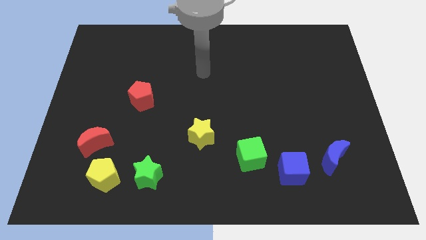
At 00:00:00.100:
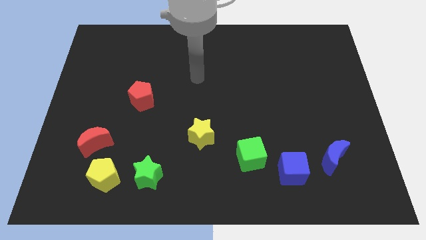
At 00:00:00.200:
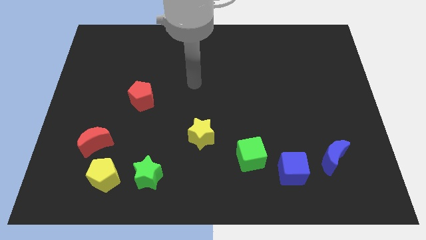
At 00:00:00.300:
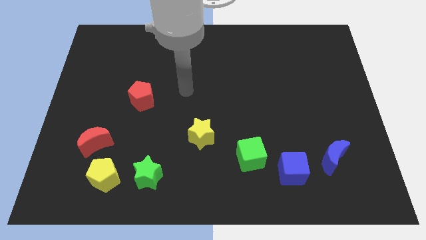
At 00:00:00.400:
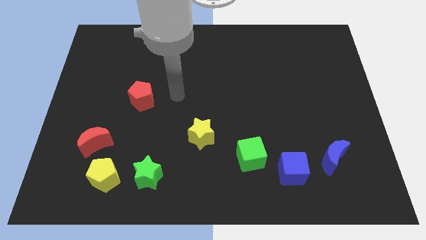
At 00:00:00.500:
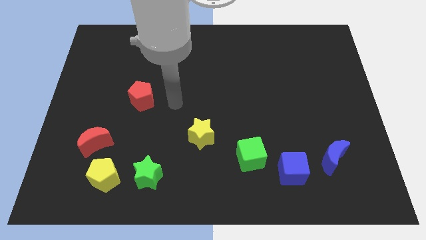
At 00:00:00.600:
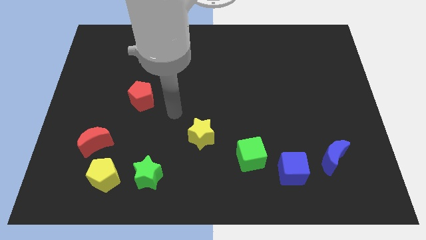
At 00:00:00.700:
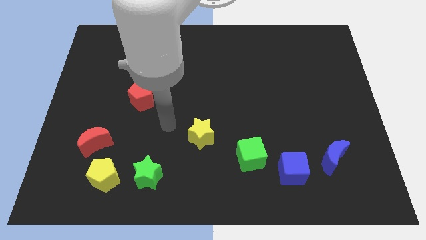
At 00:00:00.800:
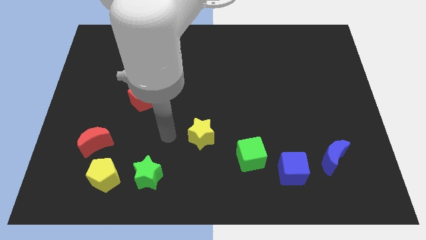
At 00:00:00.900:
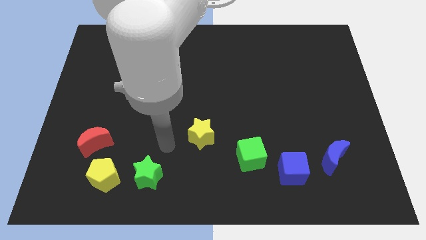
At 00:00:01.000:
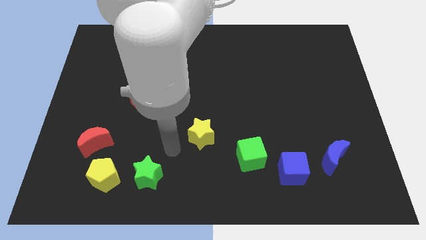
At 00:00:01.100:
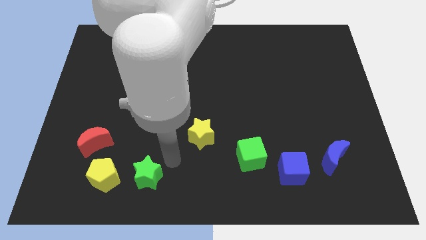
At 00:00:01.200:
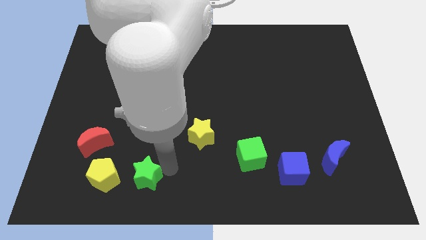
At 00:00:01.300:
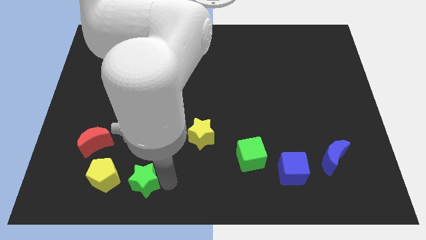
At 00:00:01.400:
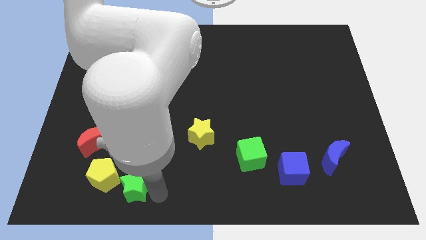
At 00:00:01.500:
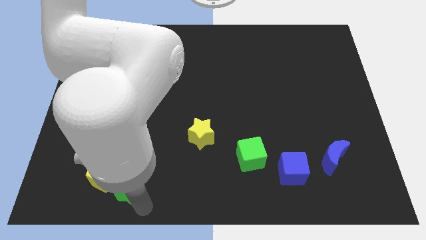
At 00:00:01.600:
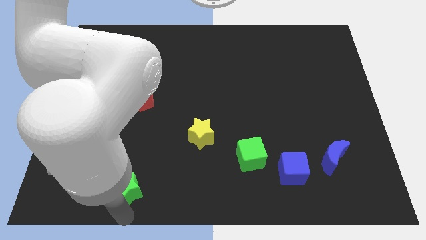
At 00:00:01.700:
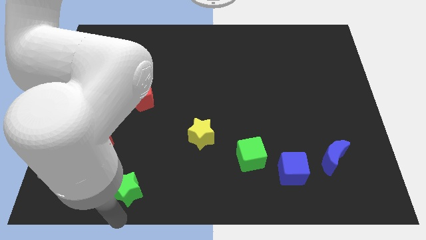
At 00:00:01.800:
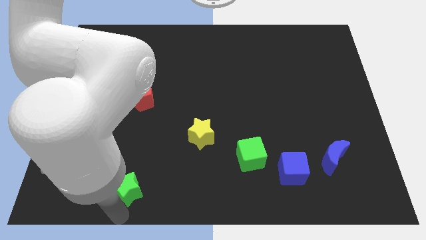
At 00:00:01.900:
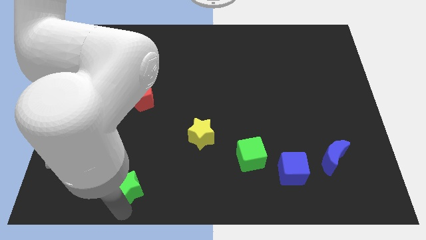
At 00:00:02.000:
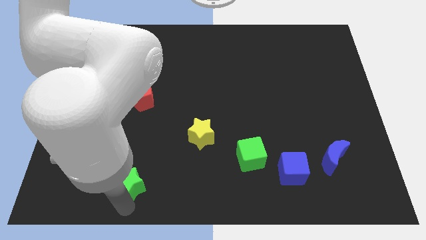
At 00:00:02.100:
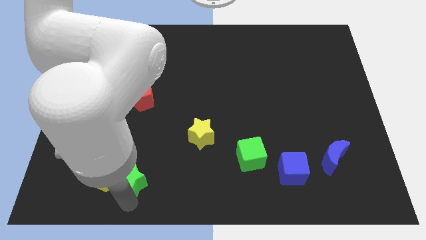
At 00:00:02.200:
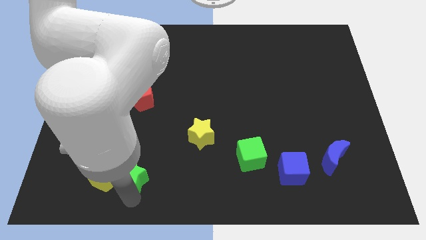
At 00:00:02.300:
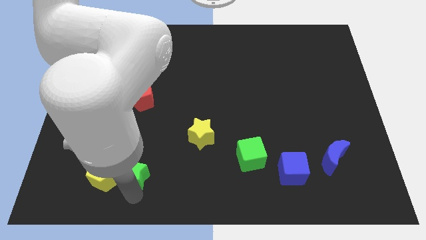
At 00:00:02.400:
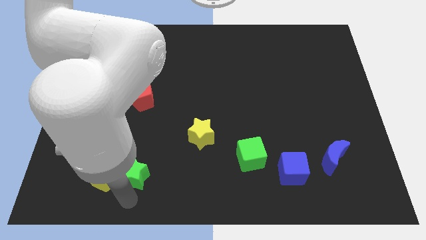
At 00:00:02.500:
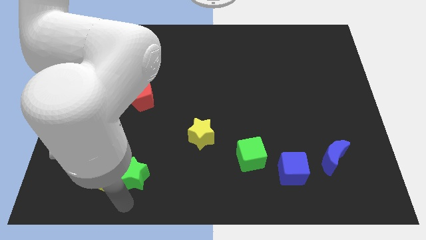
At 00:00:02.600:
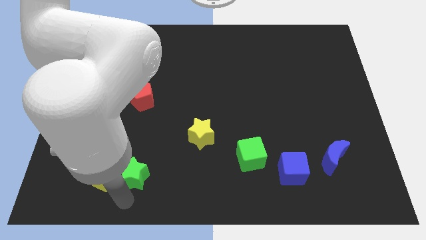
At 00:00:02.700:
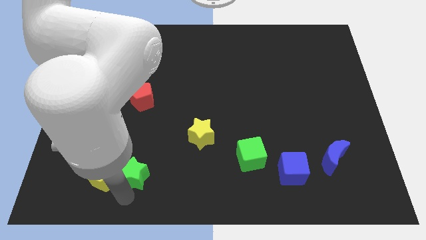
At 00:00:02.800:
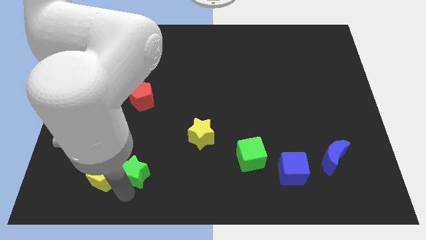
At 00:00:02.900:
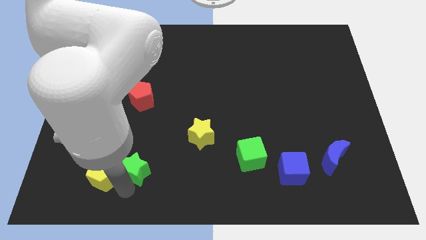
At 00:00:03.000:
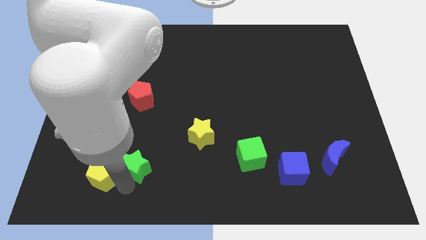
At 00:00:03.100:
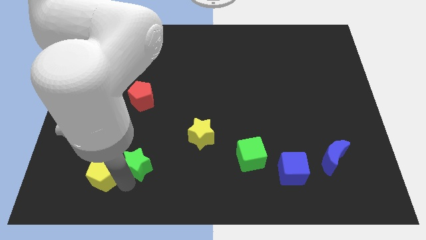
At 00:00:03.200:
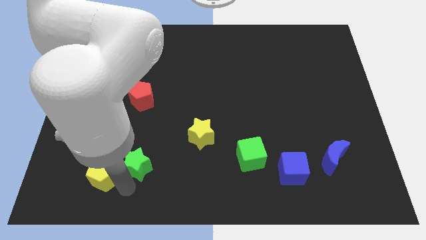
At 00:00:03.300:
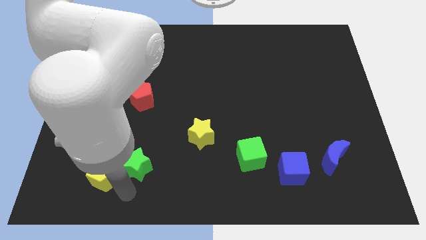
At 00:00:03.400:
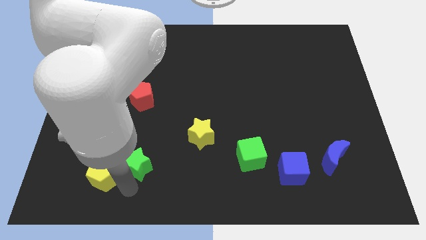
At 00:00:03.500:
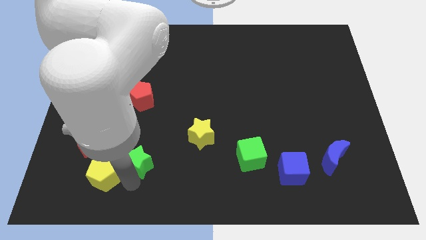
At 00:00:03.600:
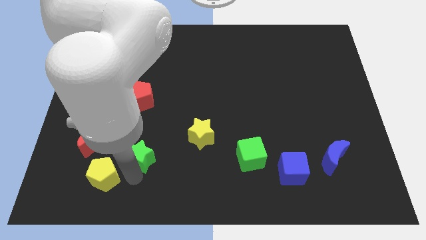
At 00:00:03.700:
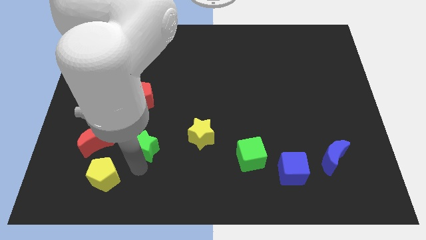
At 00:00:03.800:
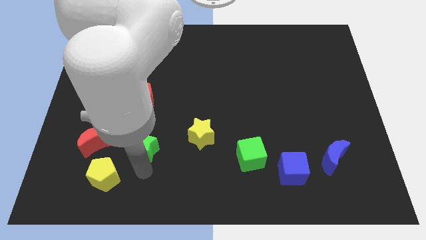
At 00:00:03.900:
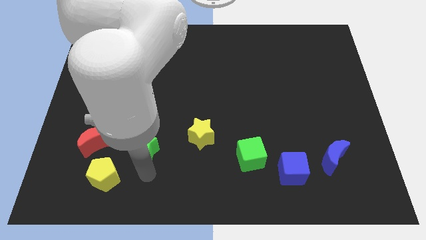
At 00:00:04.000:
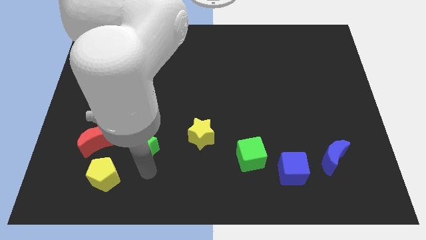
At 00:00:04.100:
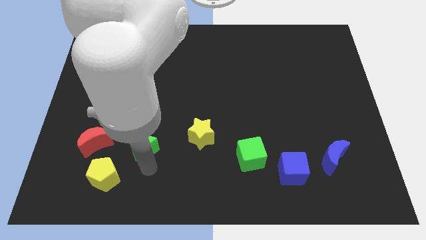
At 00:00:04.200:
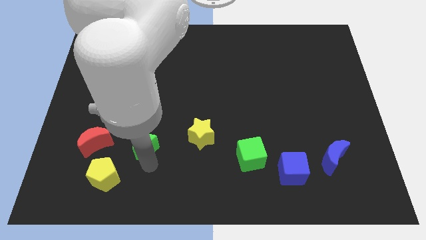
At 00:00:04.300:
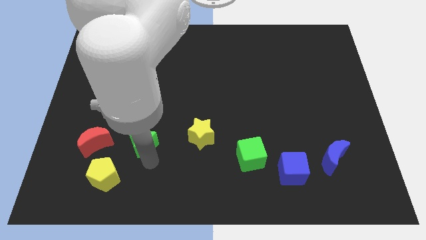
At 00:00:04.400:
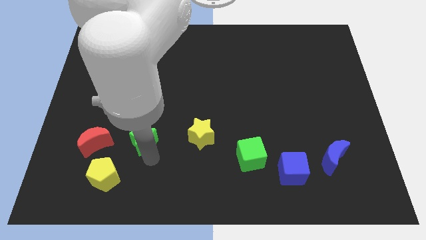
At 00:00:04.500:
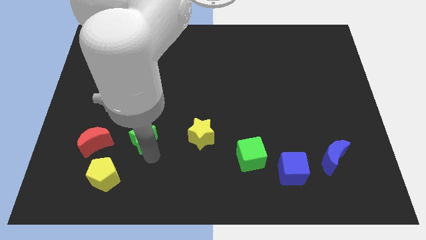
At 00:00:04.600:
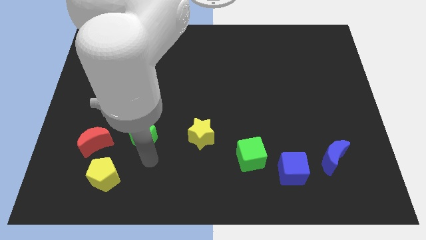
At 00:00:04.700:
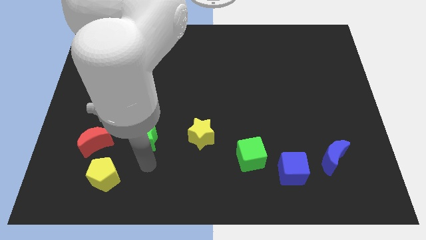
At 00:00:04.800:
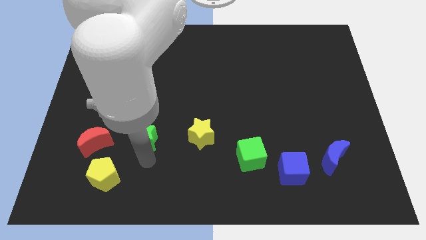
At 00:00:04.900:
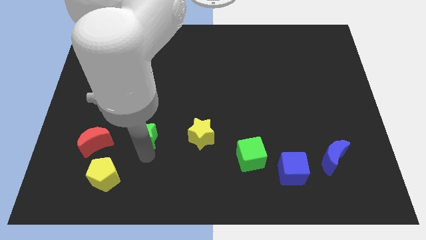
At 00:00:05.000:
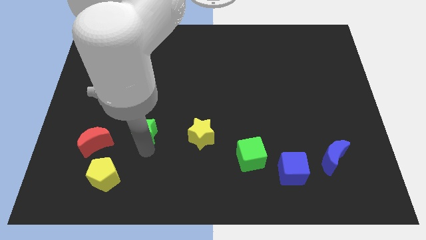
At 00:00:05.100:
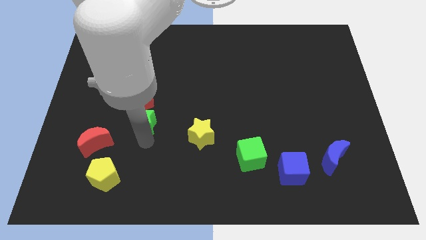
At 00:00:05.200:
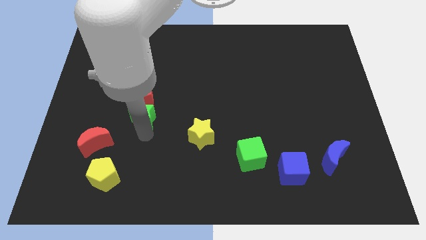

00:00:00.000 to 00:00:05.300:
put the green star close to the red pentagon

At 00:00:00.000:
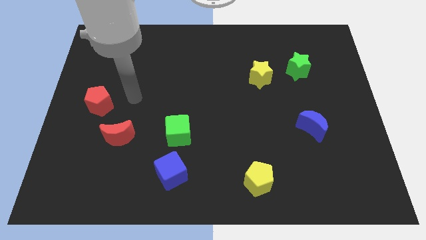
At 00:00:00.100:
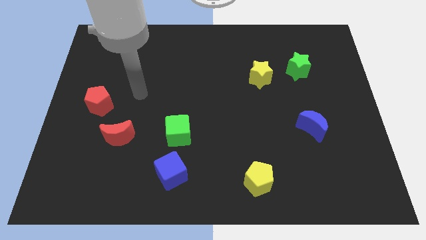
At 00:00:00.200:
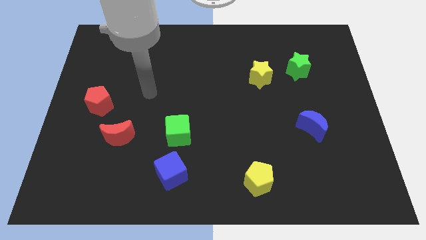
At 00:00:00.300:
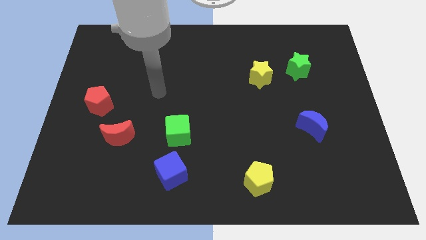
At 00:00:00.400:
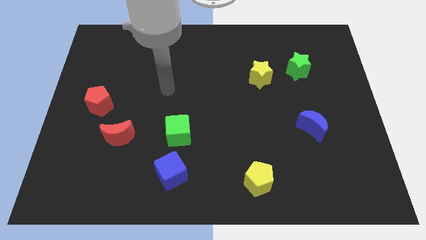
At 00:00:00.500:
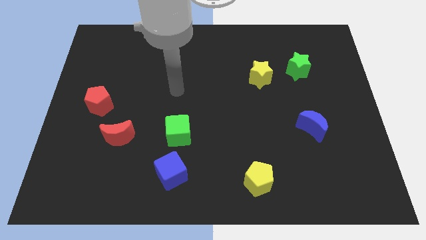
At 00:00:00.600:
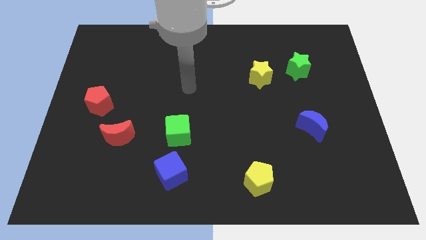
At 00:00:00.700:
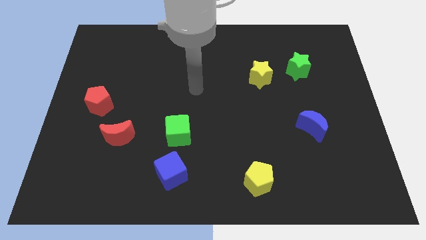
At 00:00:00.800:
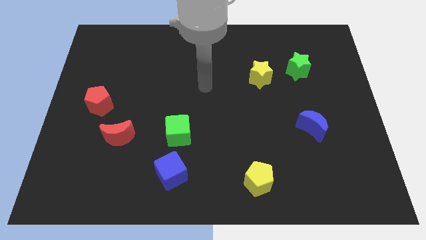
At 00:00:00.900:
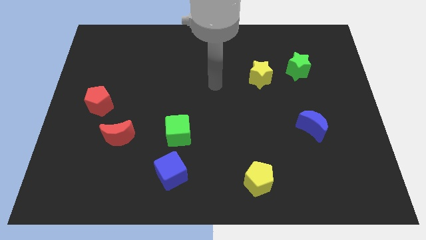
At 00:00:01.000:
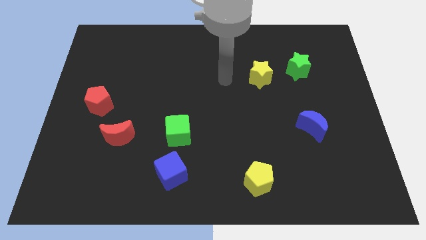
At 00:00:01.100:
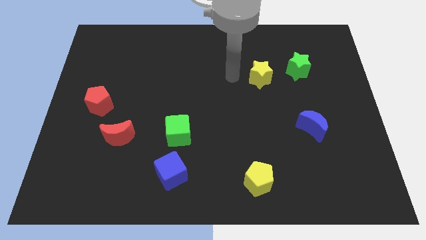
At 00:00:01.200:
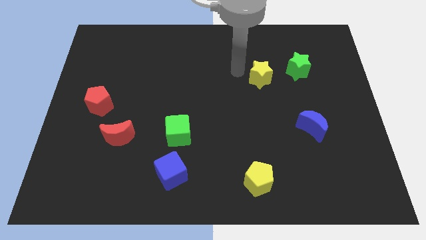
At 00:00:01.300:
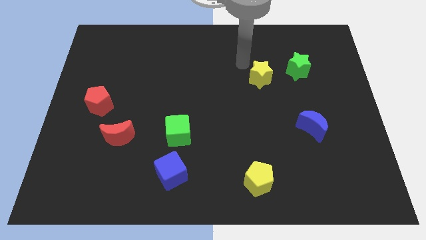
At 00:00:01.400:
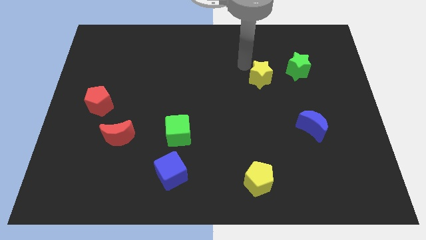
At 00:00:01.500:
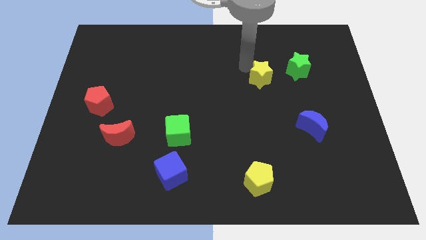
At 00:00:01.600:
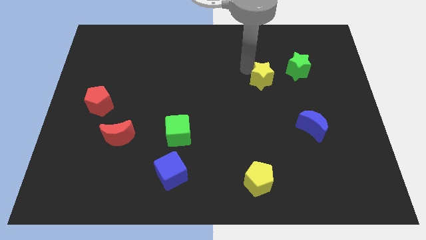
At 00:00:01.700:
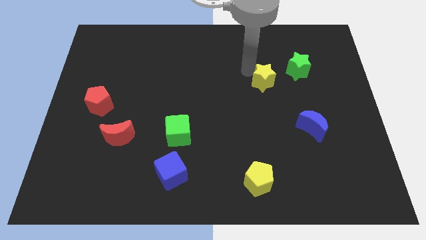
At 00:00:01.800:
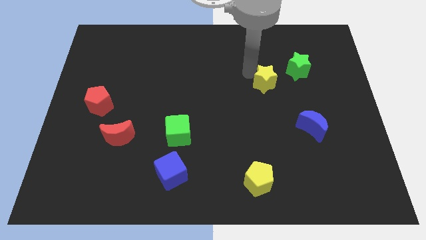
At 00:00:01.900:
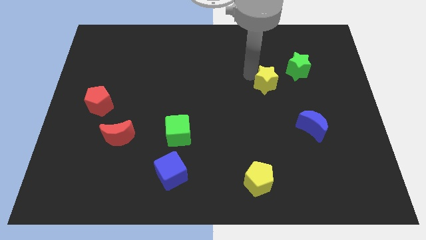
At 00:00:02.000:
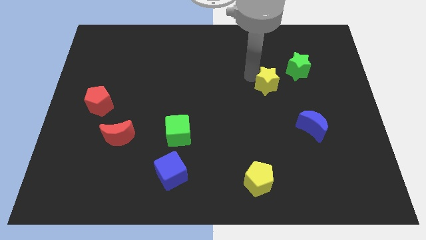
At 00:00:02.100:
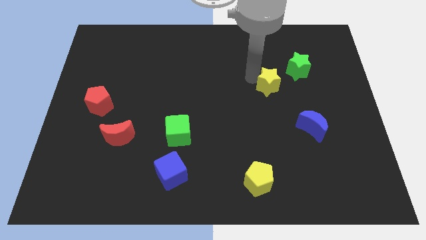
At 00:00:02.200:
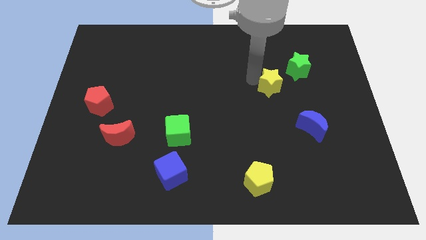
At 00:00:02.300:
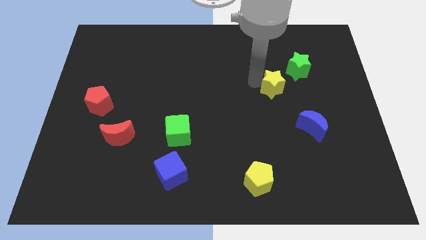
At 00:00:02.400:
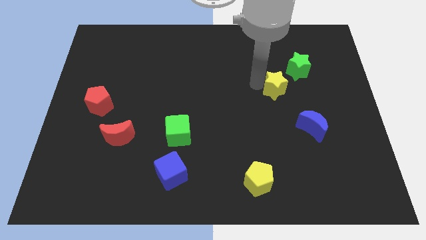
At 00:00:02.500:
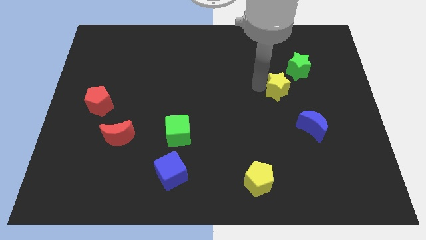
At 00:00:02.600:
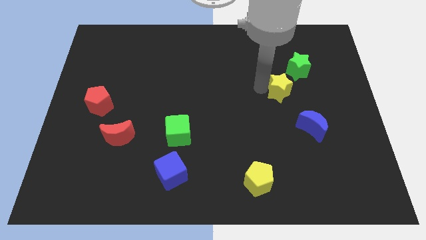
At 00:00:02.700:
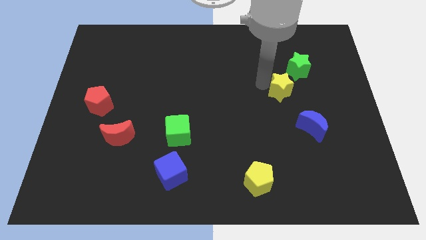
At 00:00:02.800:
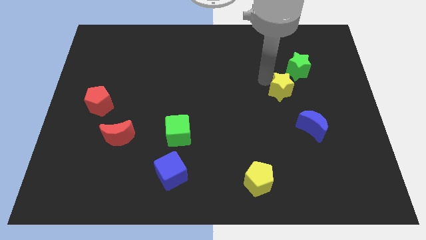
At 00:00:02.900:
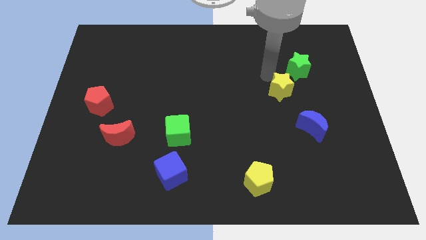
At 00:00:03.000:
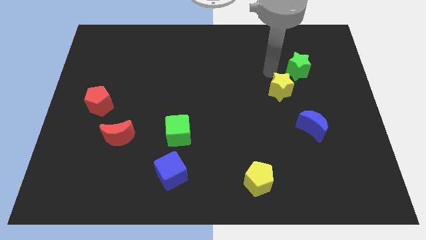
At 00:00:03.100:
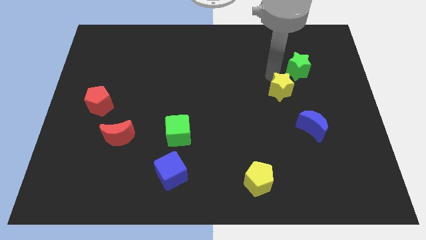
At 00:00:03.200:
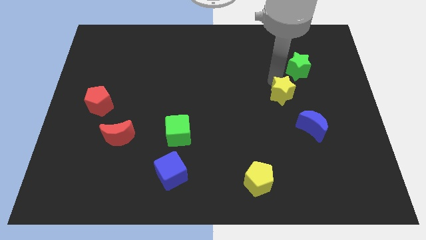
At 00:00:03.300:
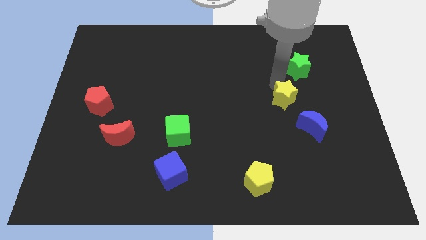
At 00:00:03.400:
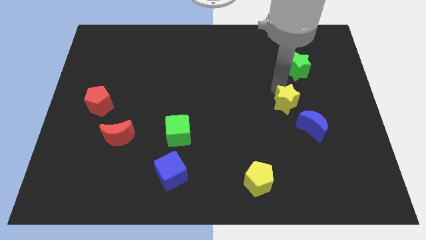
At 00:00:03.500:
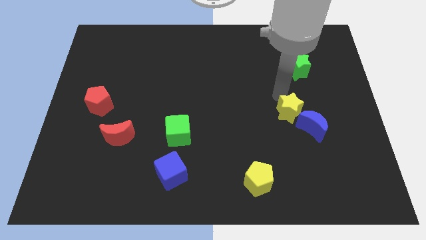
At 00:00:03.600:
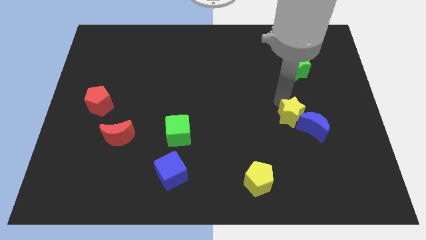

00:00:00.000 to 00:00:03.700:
slide the yellow star to the blue moon
